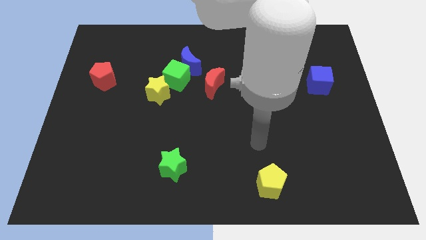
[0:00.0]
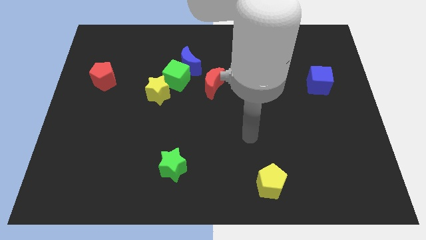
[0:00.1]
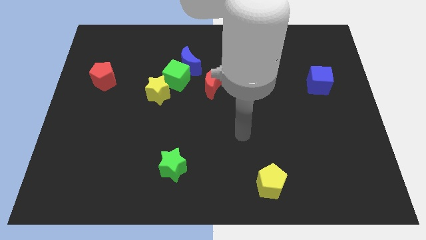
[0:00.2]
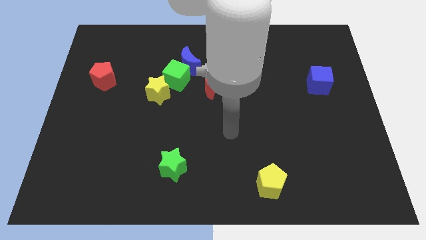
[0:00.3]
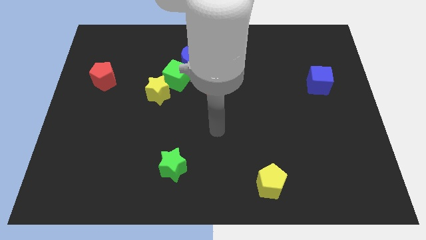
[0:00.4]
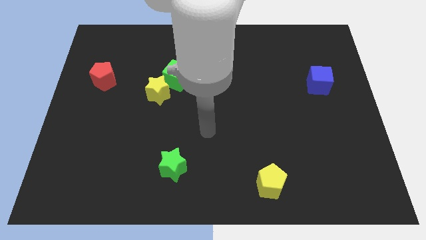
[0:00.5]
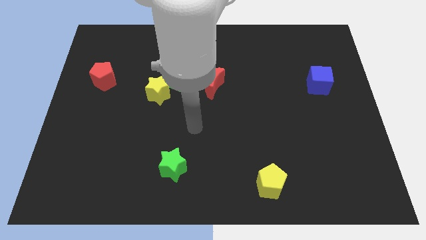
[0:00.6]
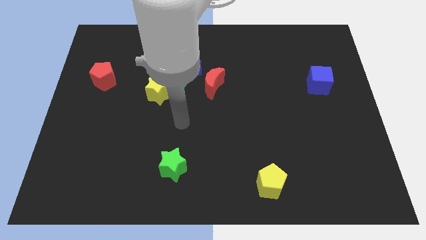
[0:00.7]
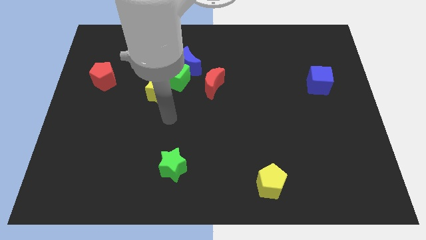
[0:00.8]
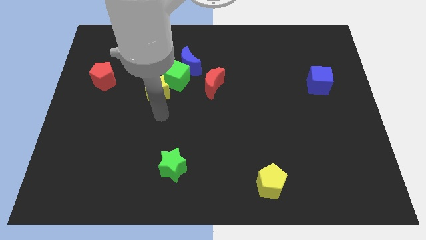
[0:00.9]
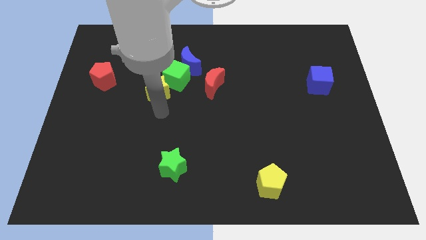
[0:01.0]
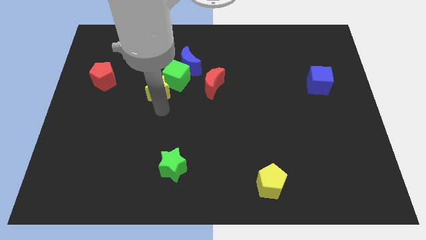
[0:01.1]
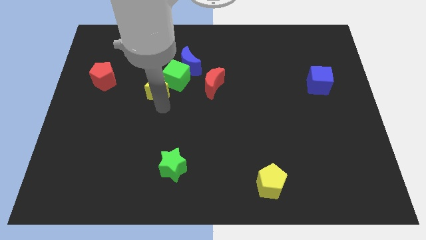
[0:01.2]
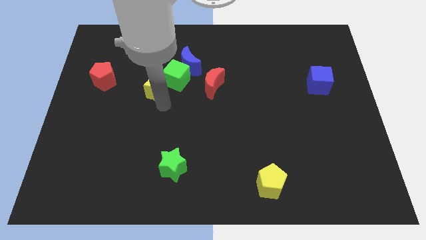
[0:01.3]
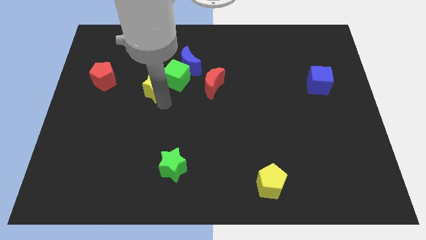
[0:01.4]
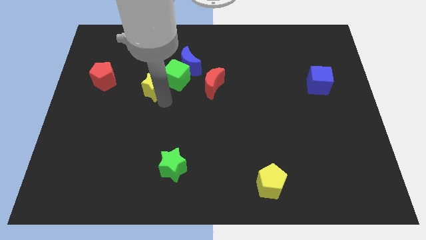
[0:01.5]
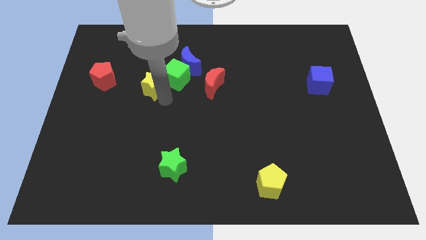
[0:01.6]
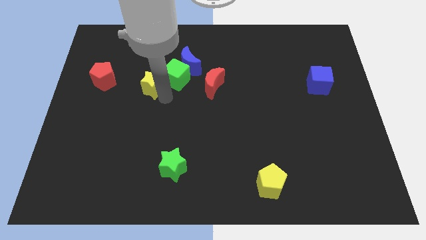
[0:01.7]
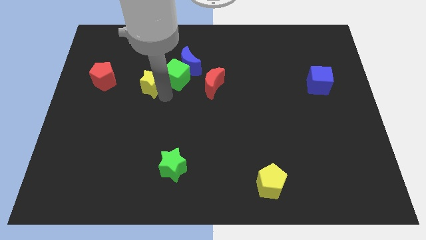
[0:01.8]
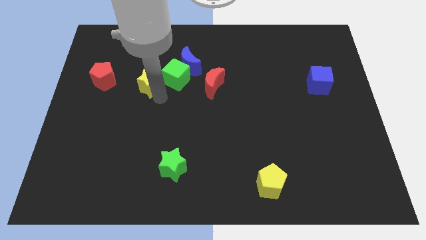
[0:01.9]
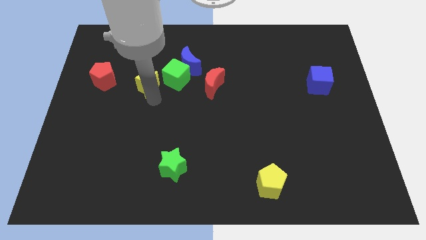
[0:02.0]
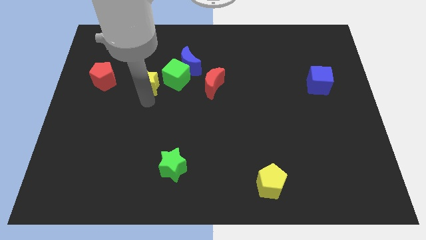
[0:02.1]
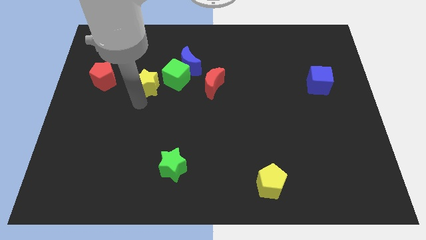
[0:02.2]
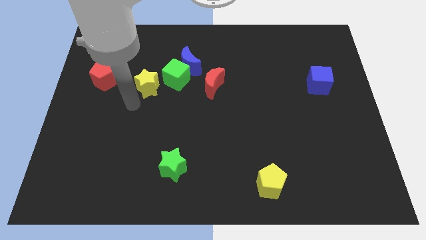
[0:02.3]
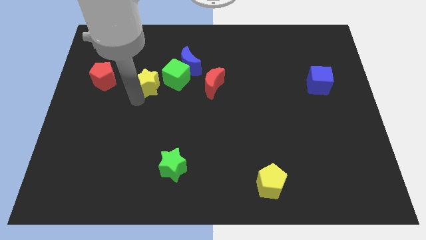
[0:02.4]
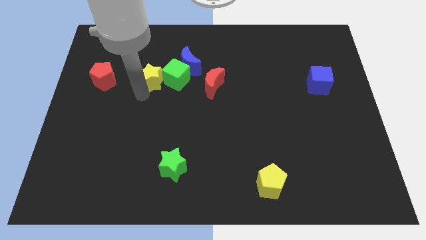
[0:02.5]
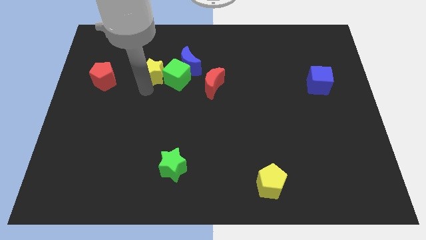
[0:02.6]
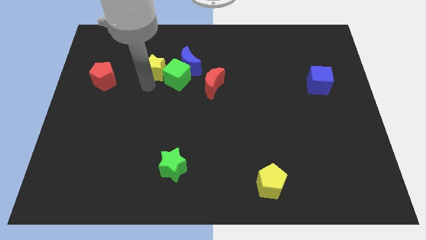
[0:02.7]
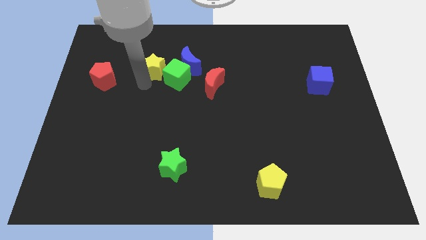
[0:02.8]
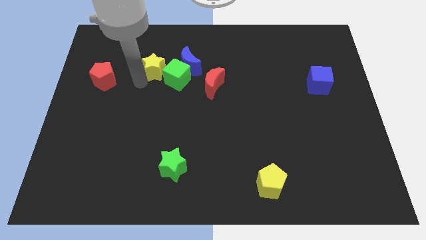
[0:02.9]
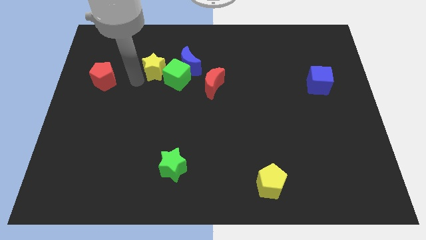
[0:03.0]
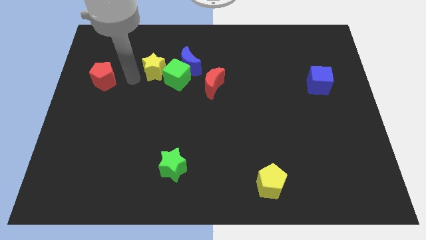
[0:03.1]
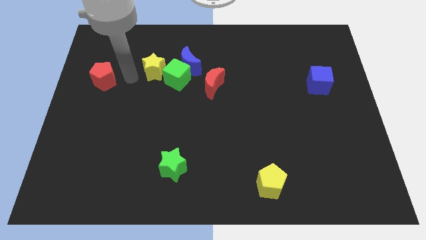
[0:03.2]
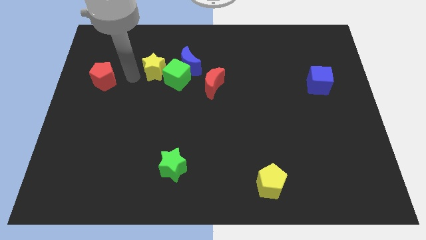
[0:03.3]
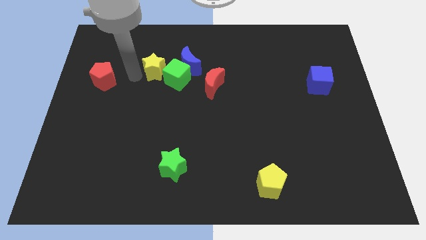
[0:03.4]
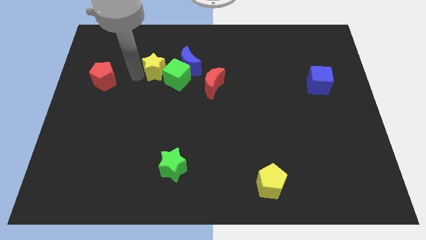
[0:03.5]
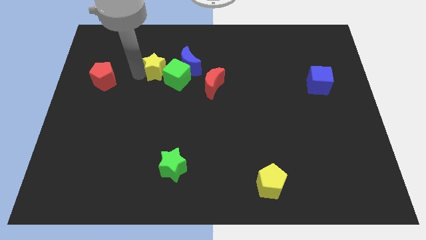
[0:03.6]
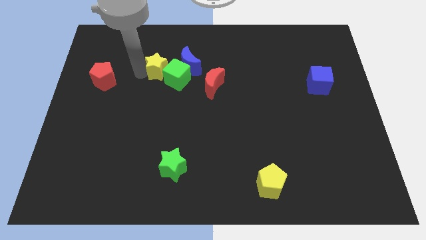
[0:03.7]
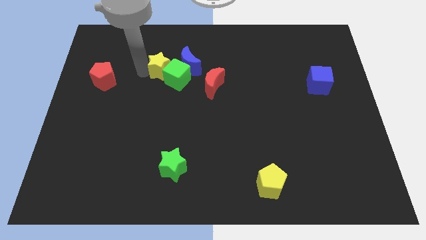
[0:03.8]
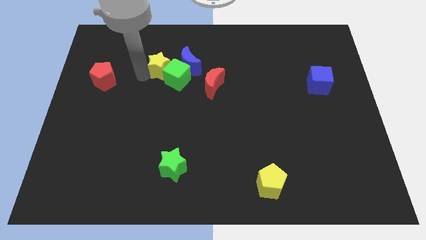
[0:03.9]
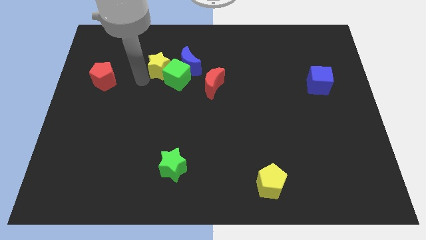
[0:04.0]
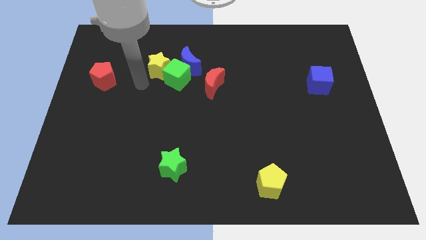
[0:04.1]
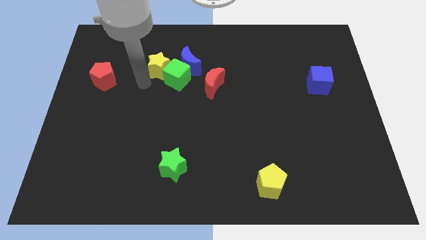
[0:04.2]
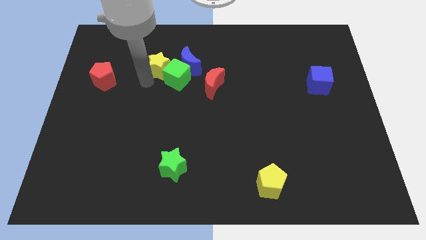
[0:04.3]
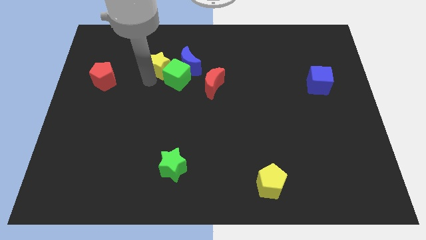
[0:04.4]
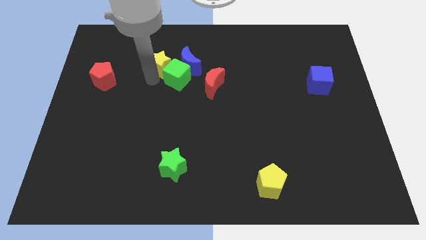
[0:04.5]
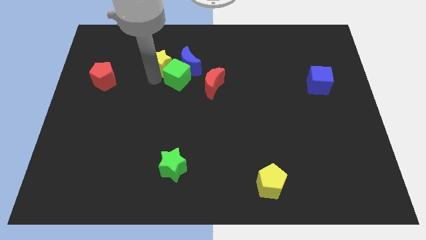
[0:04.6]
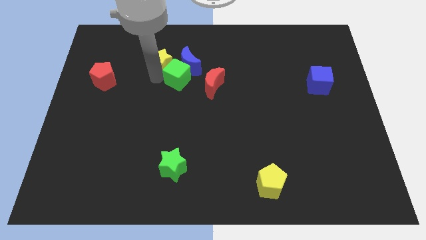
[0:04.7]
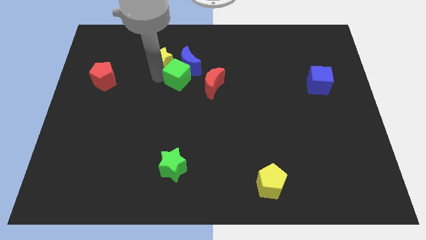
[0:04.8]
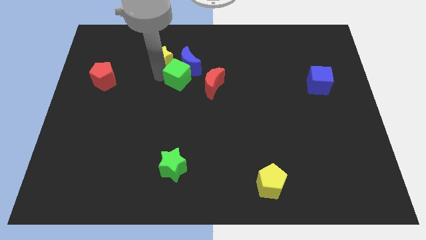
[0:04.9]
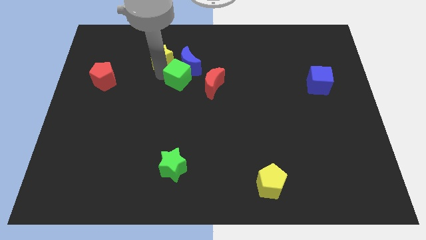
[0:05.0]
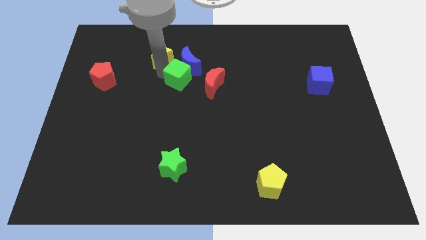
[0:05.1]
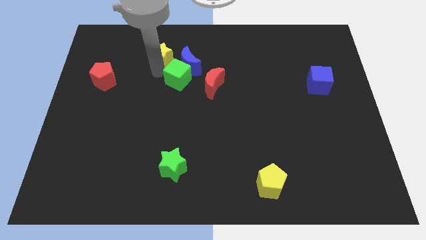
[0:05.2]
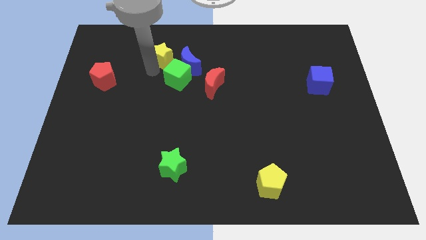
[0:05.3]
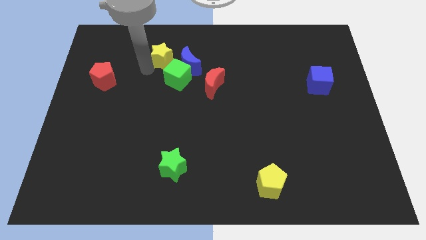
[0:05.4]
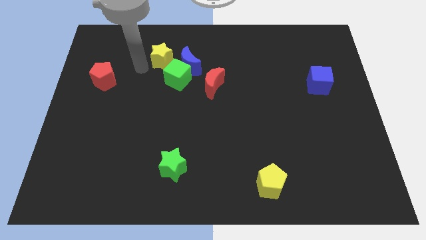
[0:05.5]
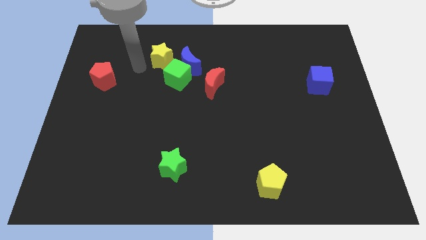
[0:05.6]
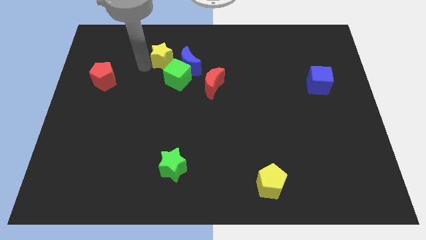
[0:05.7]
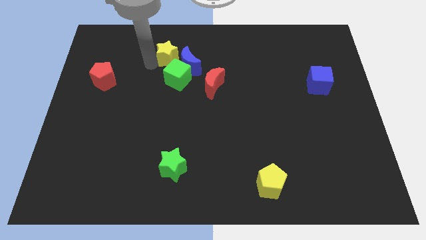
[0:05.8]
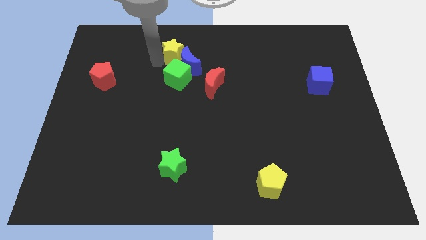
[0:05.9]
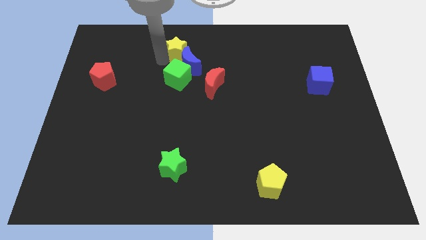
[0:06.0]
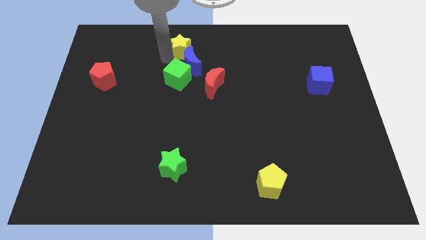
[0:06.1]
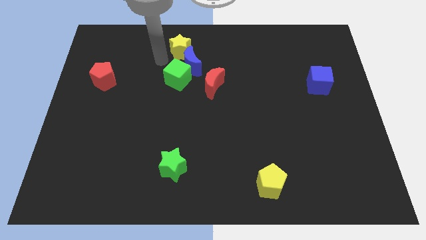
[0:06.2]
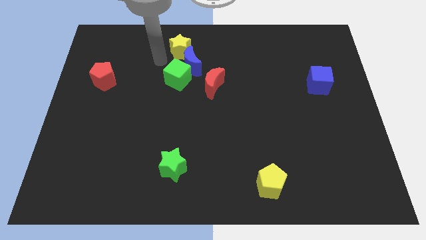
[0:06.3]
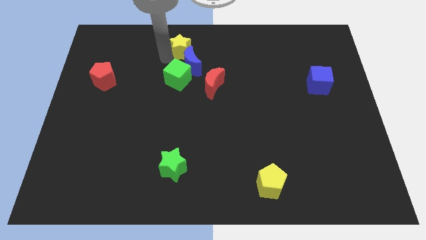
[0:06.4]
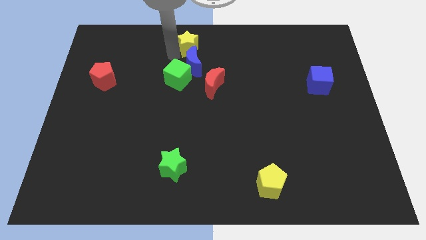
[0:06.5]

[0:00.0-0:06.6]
slide the yellow star to the top
